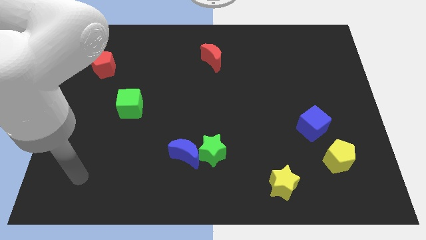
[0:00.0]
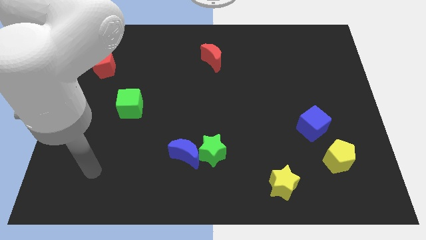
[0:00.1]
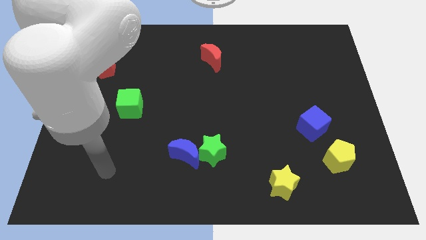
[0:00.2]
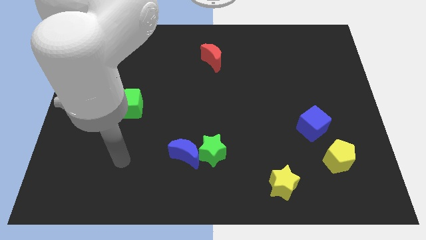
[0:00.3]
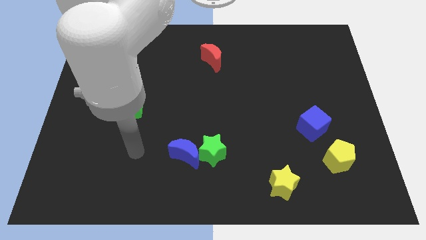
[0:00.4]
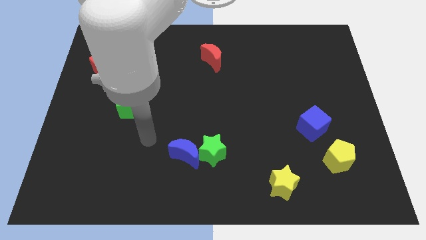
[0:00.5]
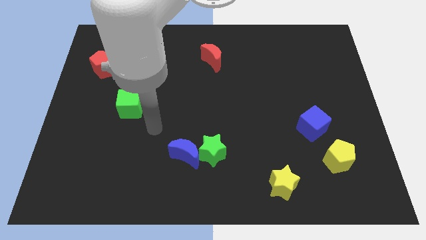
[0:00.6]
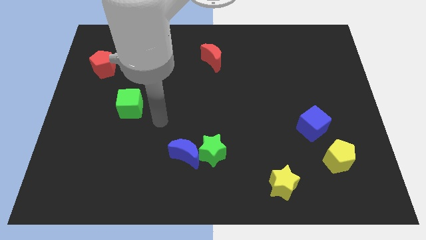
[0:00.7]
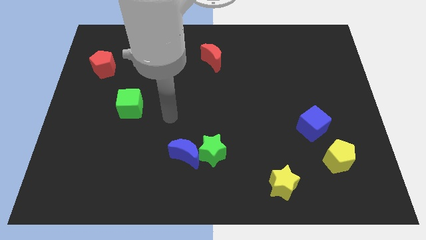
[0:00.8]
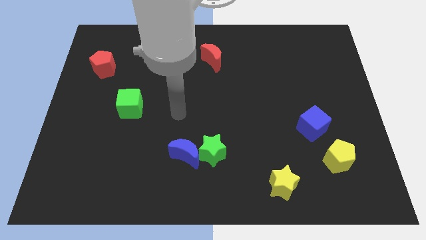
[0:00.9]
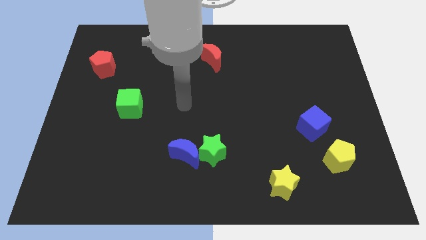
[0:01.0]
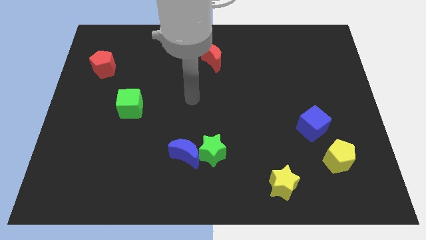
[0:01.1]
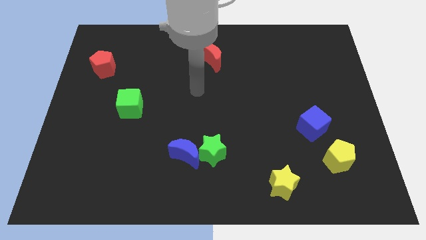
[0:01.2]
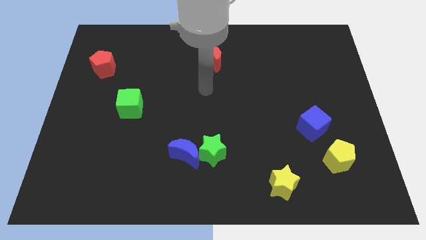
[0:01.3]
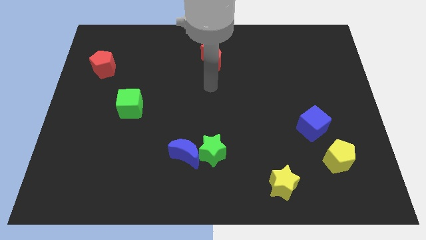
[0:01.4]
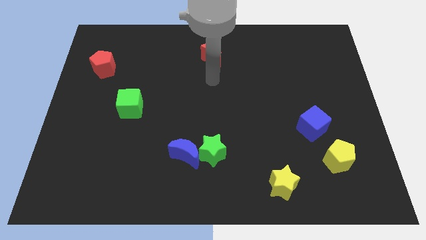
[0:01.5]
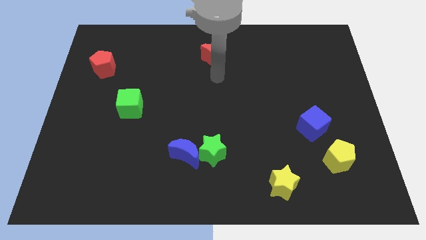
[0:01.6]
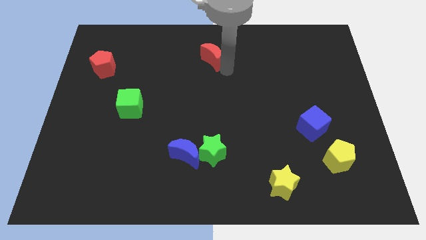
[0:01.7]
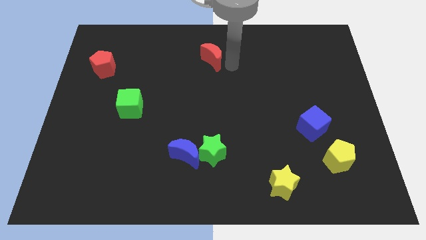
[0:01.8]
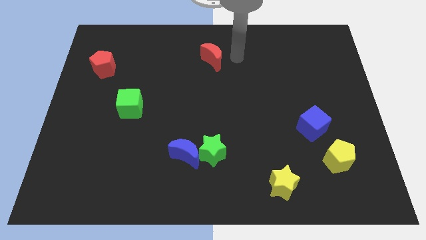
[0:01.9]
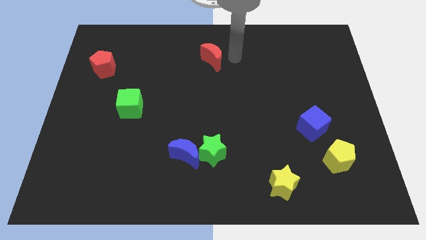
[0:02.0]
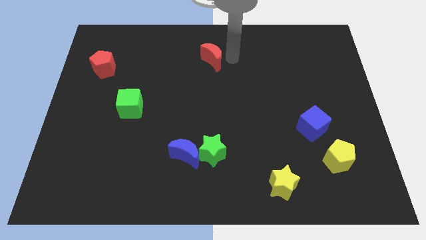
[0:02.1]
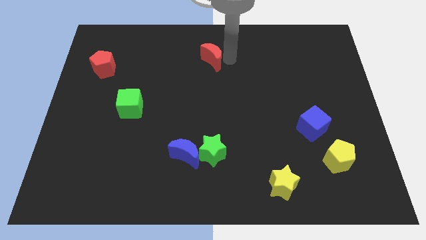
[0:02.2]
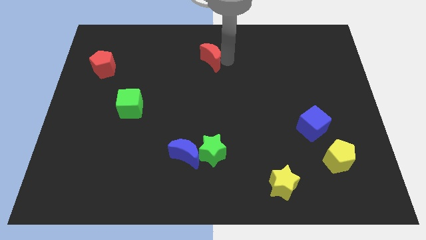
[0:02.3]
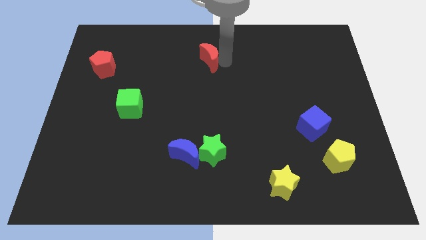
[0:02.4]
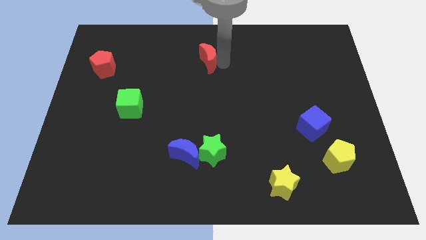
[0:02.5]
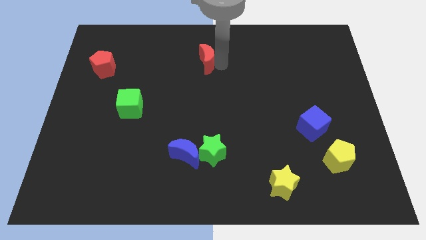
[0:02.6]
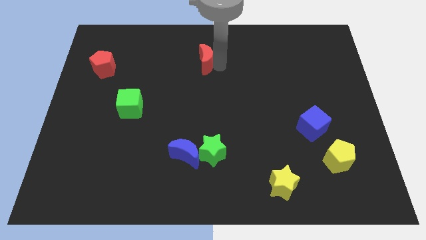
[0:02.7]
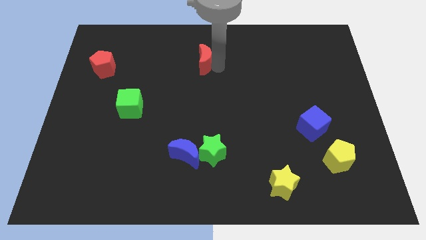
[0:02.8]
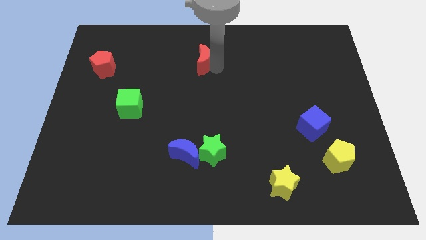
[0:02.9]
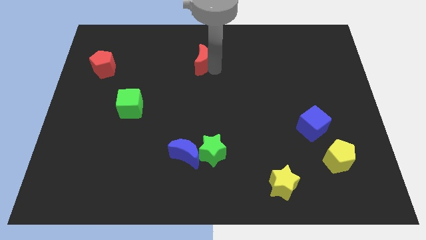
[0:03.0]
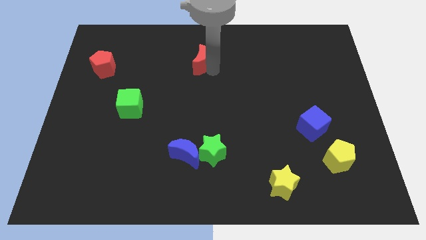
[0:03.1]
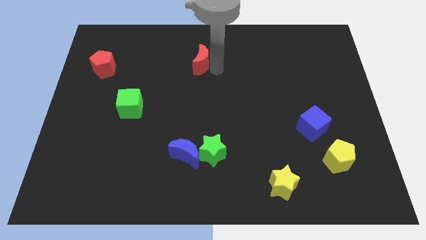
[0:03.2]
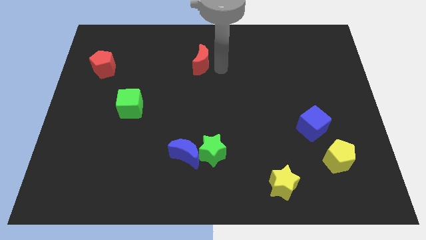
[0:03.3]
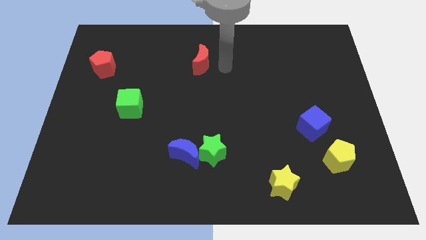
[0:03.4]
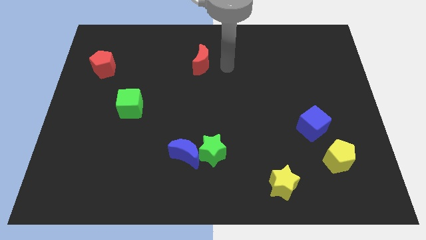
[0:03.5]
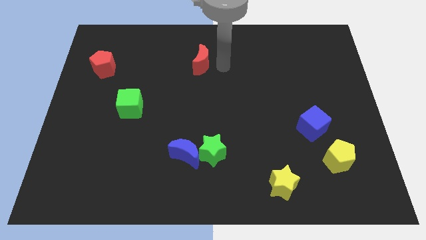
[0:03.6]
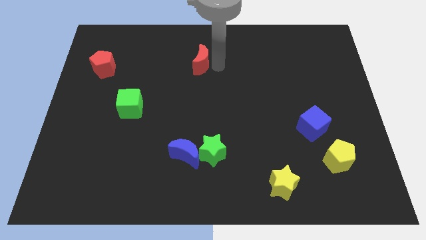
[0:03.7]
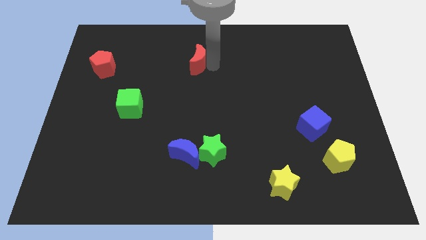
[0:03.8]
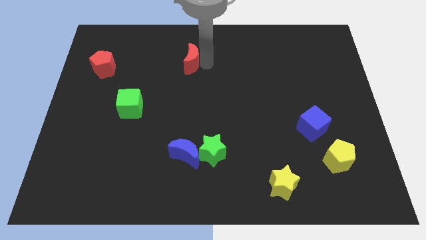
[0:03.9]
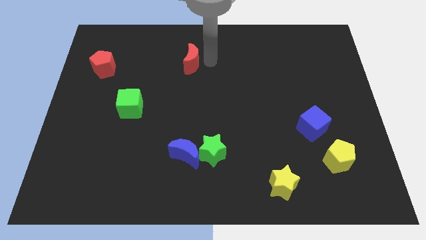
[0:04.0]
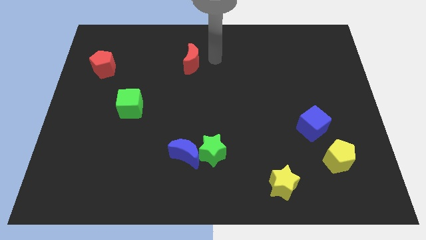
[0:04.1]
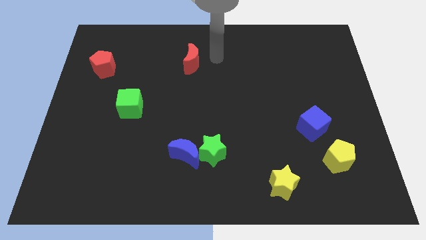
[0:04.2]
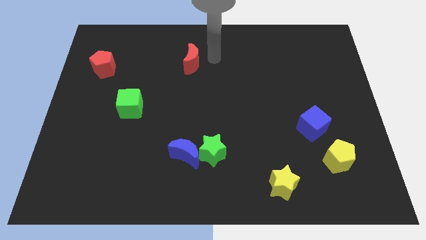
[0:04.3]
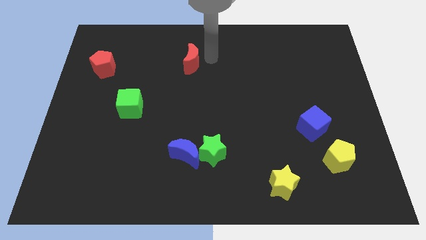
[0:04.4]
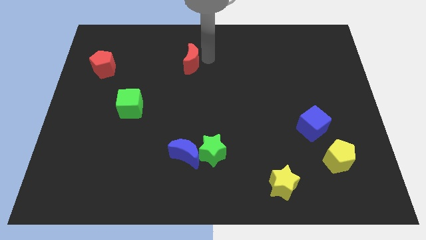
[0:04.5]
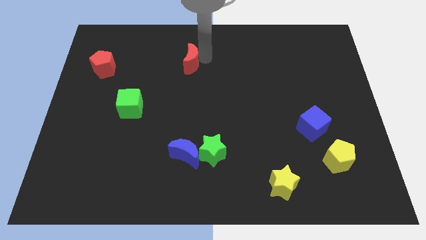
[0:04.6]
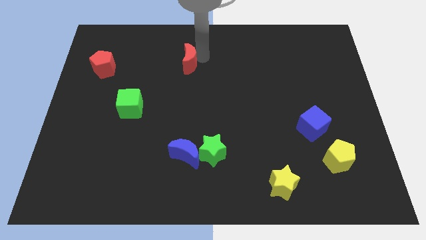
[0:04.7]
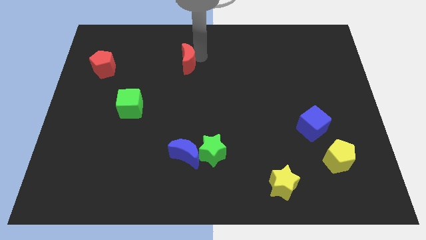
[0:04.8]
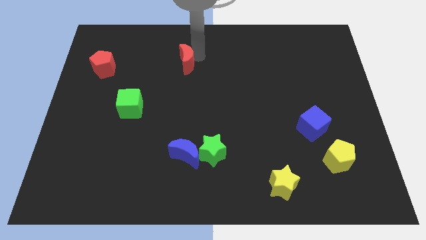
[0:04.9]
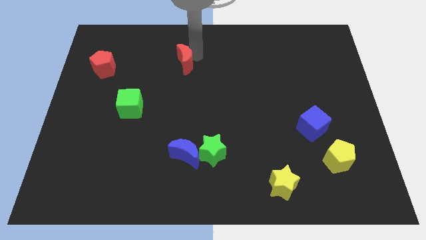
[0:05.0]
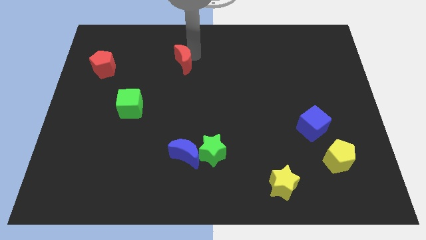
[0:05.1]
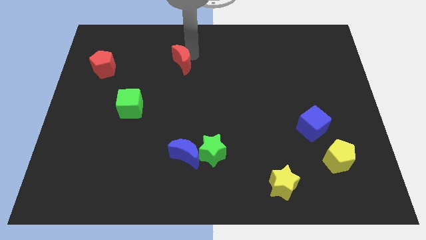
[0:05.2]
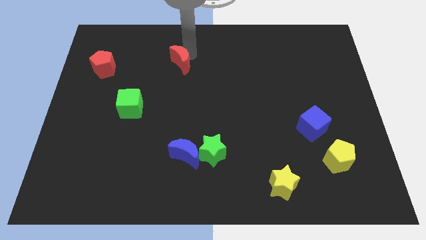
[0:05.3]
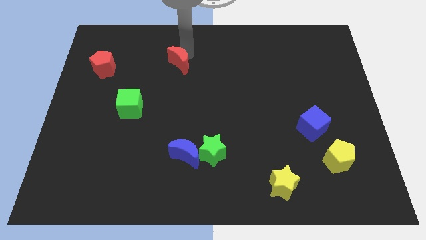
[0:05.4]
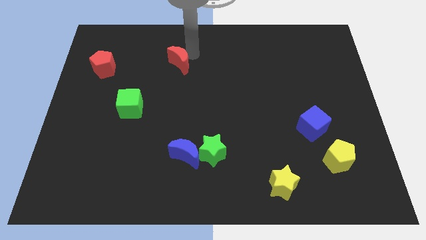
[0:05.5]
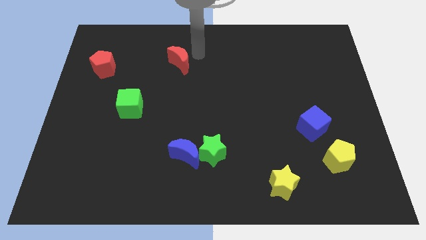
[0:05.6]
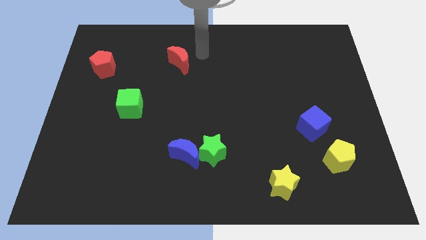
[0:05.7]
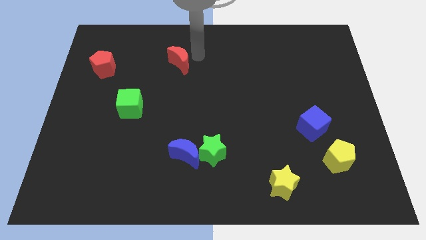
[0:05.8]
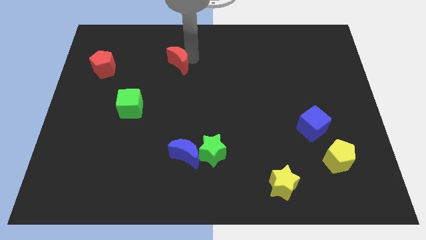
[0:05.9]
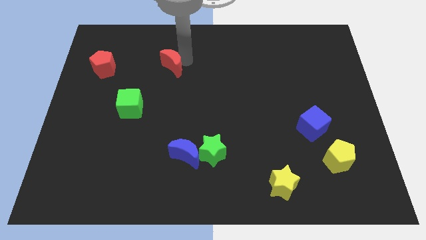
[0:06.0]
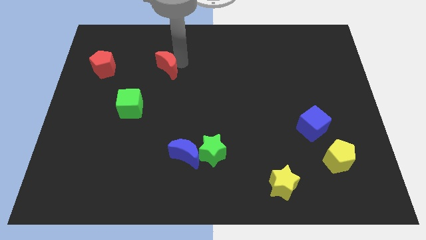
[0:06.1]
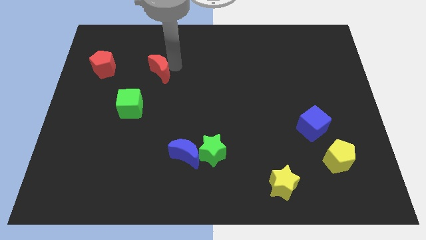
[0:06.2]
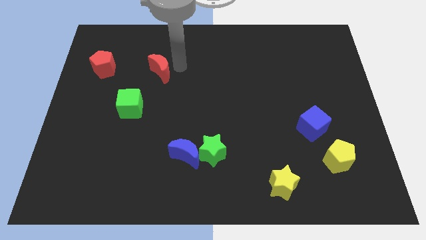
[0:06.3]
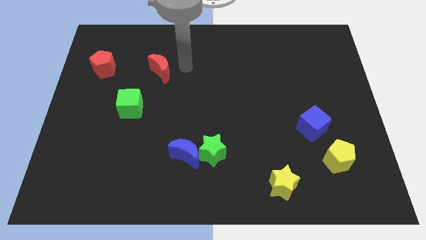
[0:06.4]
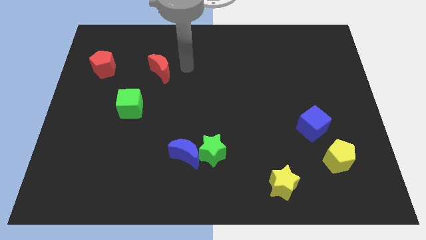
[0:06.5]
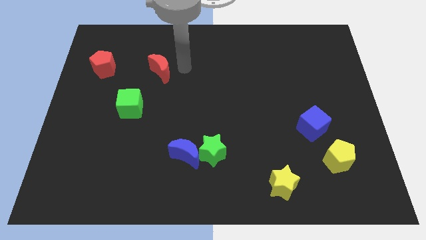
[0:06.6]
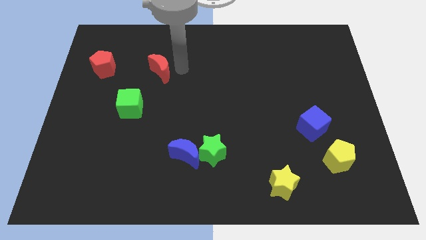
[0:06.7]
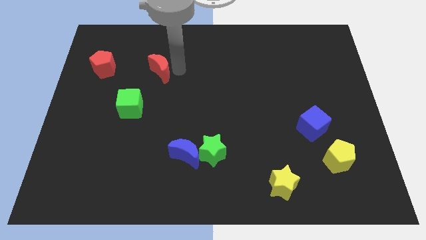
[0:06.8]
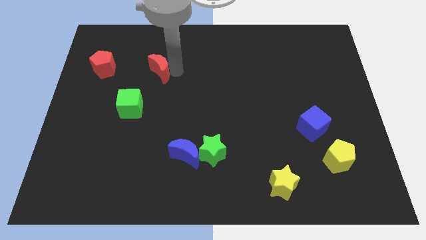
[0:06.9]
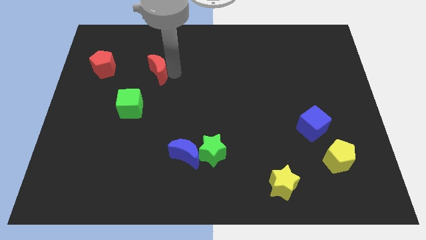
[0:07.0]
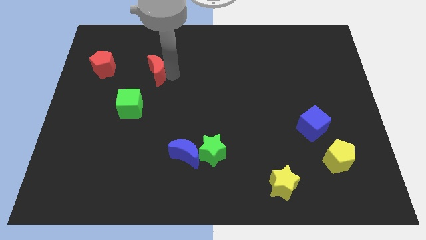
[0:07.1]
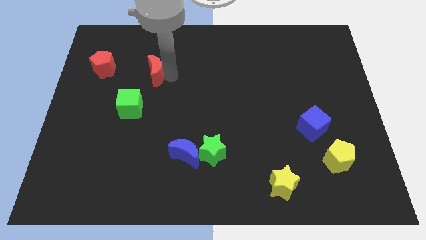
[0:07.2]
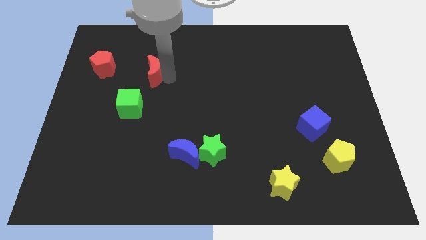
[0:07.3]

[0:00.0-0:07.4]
push the red moon to the top of the green cube

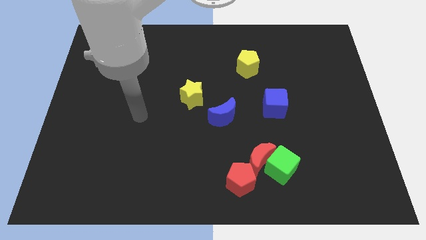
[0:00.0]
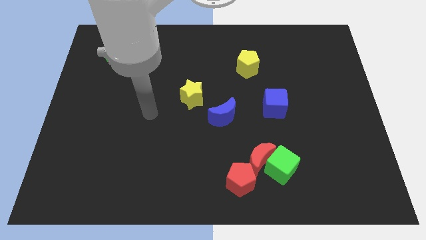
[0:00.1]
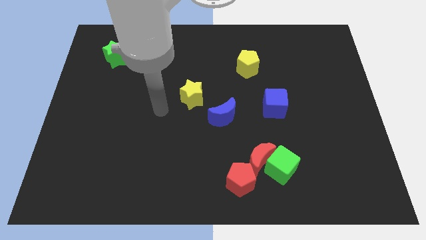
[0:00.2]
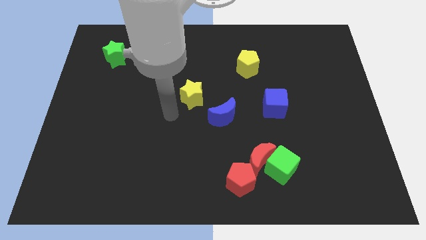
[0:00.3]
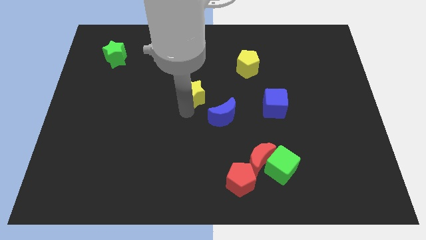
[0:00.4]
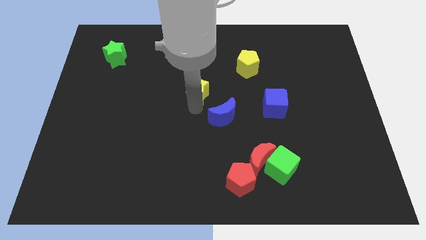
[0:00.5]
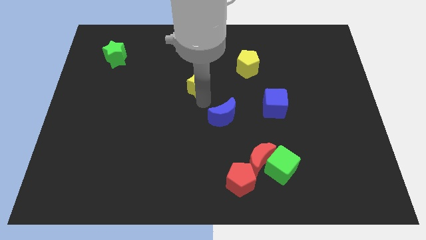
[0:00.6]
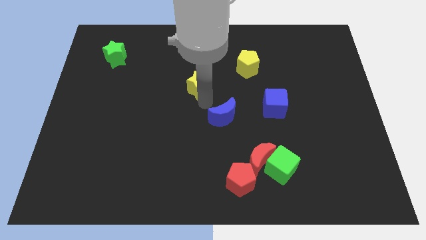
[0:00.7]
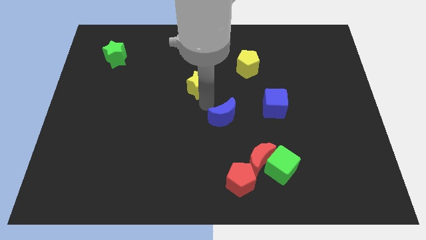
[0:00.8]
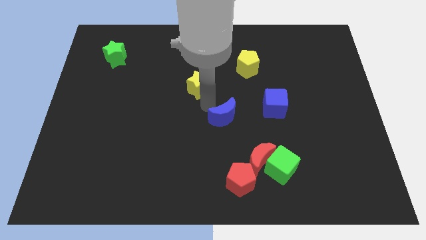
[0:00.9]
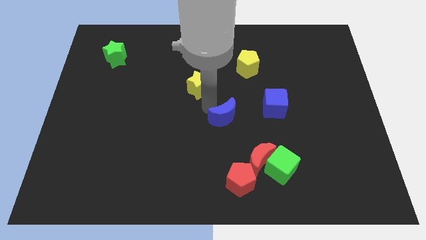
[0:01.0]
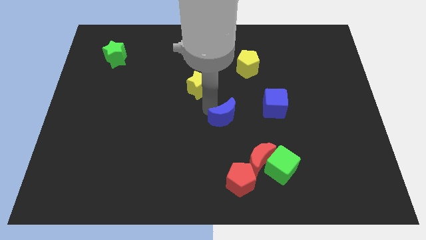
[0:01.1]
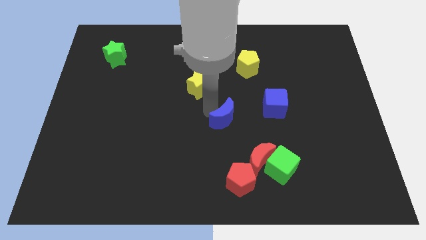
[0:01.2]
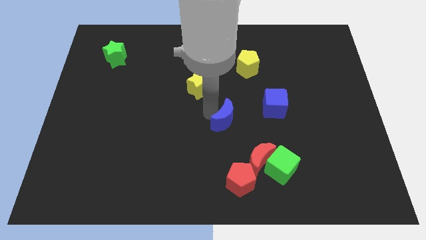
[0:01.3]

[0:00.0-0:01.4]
put the blue moon to the top of the red pentagon
